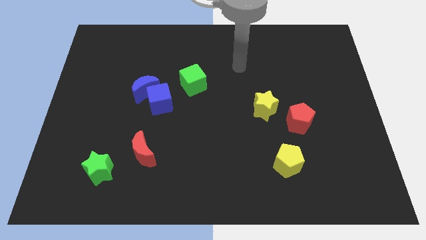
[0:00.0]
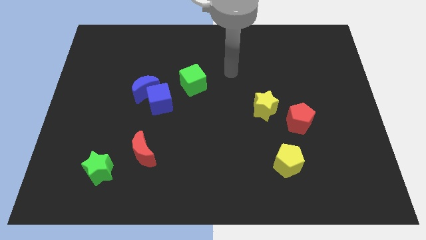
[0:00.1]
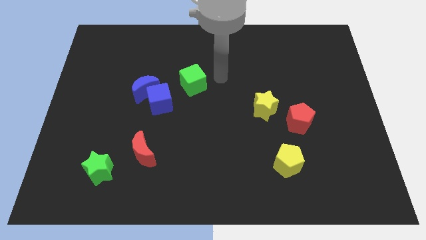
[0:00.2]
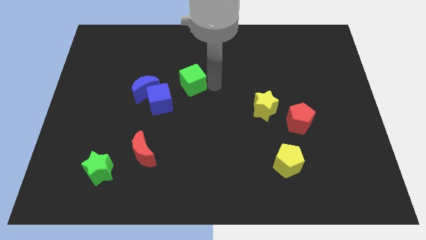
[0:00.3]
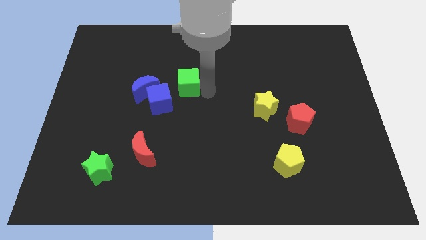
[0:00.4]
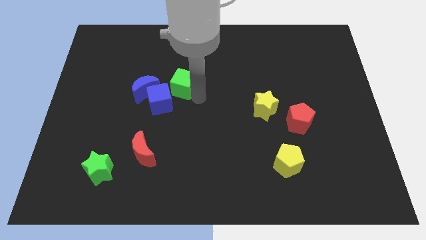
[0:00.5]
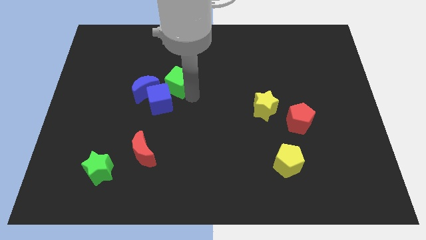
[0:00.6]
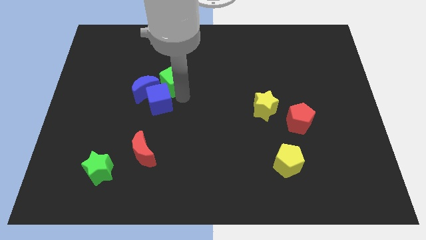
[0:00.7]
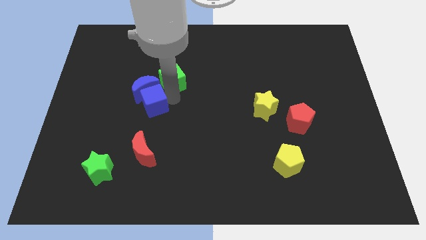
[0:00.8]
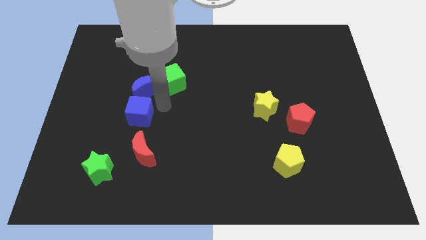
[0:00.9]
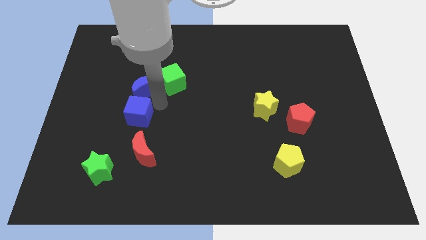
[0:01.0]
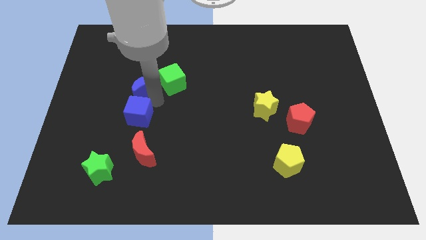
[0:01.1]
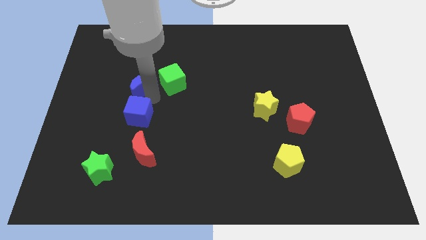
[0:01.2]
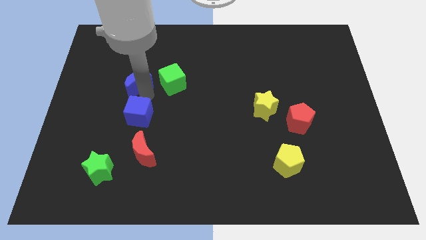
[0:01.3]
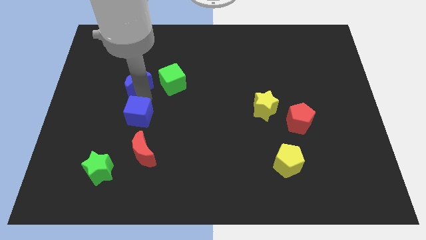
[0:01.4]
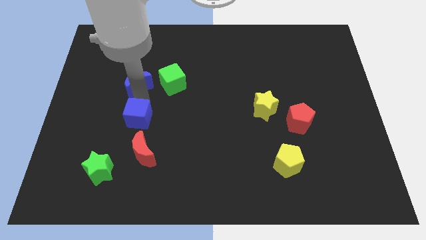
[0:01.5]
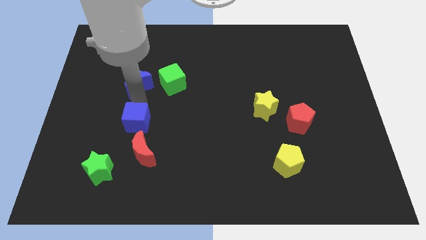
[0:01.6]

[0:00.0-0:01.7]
separate the blue moon from the blue cube

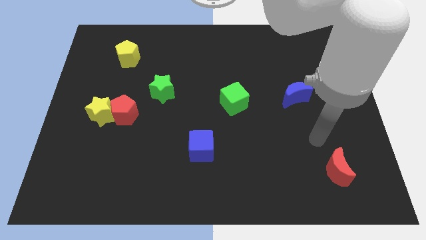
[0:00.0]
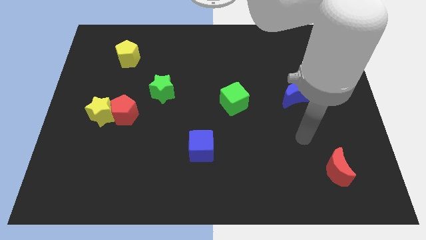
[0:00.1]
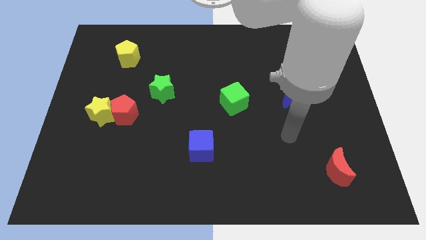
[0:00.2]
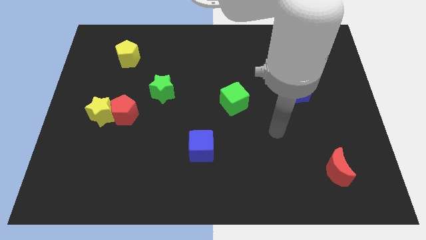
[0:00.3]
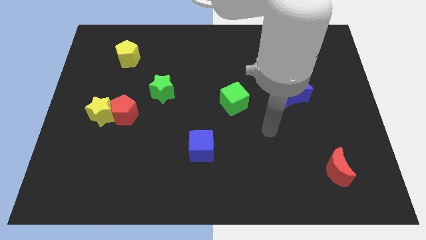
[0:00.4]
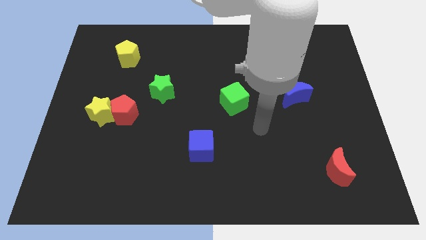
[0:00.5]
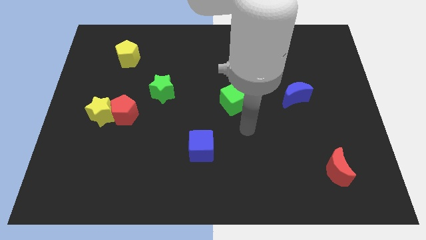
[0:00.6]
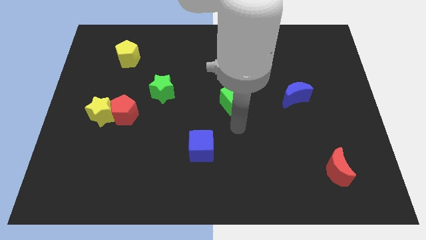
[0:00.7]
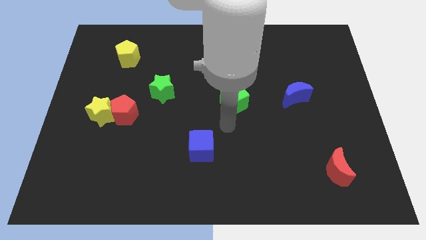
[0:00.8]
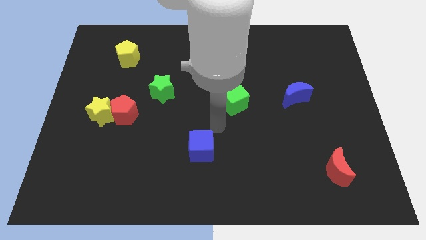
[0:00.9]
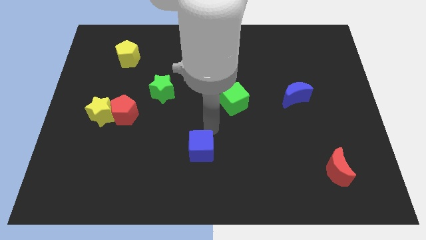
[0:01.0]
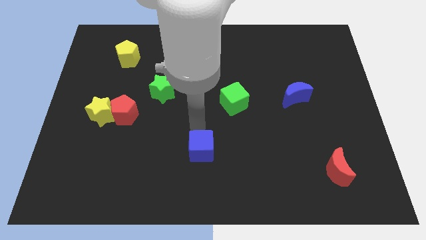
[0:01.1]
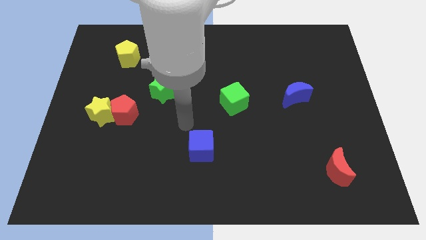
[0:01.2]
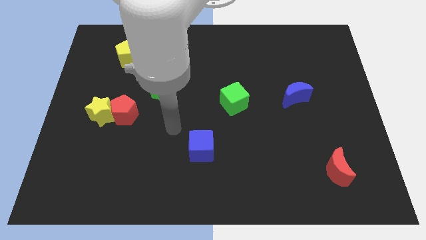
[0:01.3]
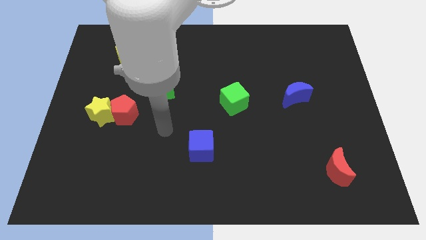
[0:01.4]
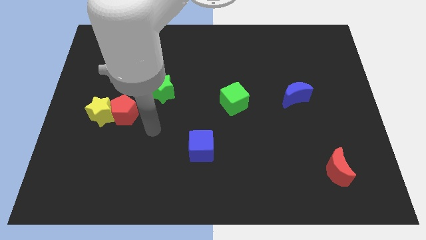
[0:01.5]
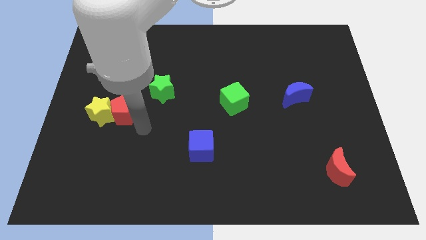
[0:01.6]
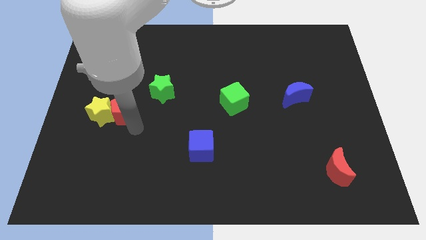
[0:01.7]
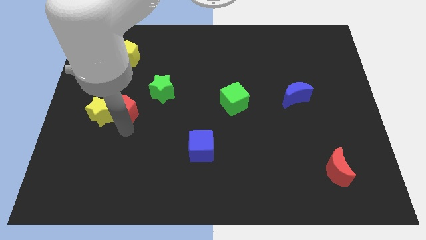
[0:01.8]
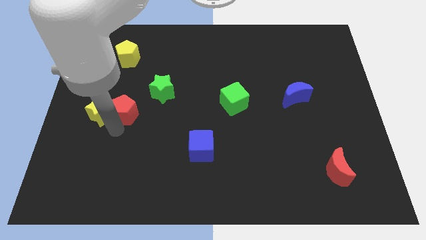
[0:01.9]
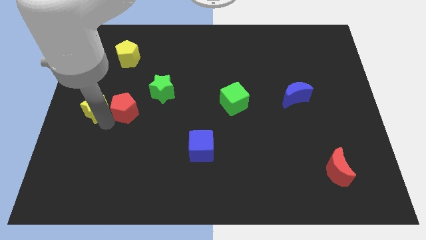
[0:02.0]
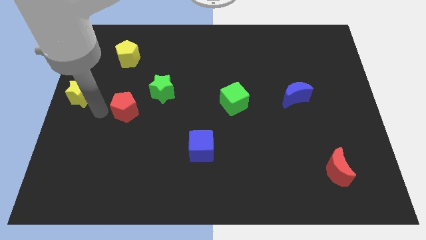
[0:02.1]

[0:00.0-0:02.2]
separate the red pentagon from the yellow star

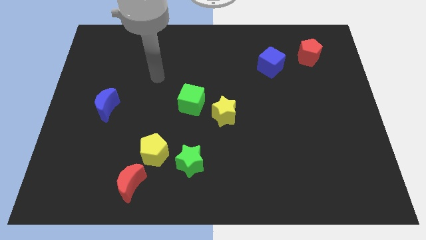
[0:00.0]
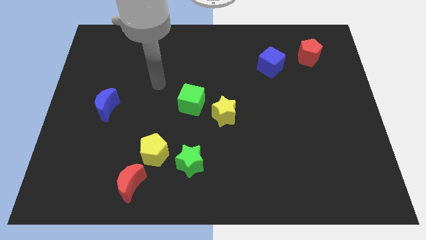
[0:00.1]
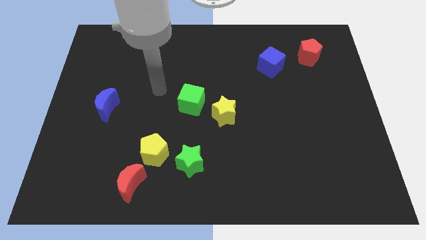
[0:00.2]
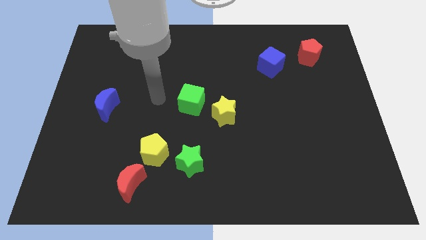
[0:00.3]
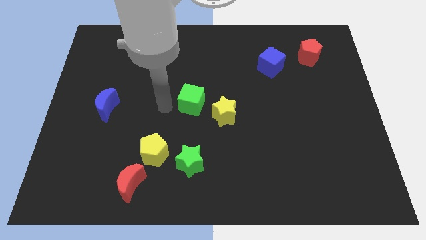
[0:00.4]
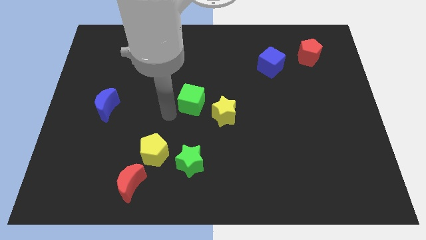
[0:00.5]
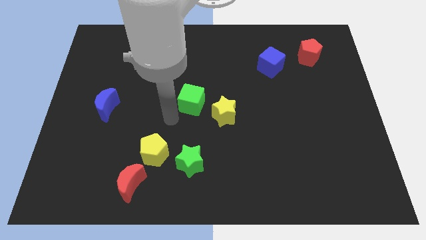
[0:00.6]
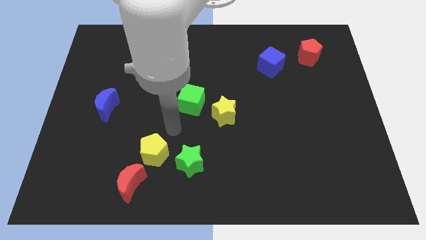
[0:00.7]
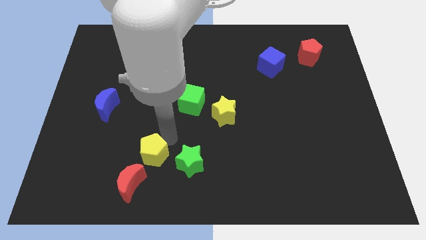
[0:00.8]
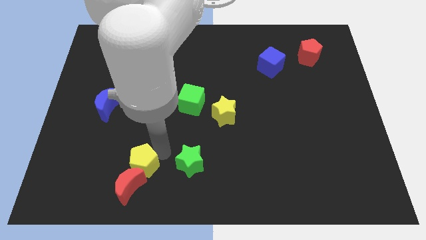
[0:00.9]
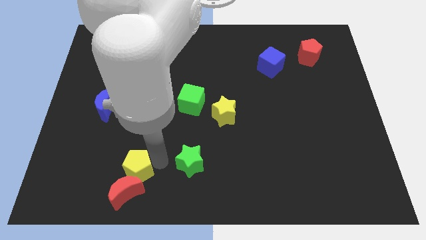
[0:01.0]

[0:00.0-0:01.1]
pull the green star apart from the yellow pentagon

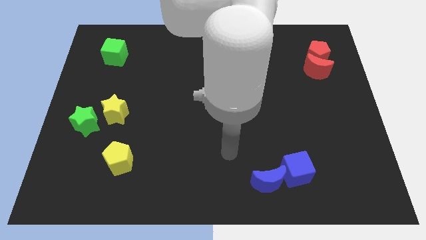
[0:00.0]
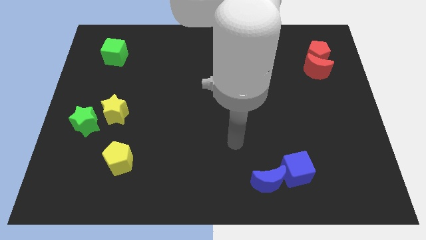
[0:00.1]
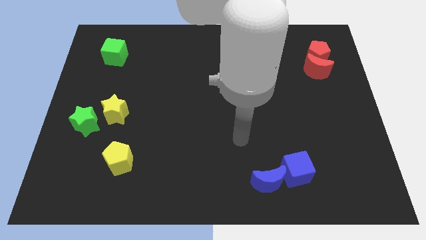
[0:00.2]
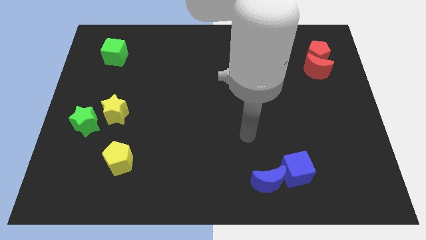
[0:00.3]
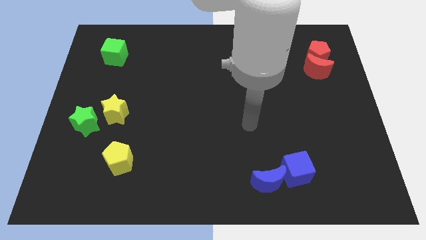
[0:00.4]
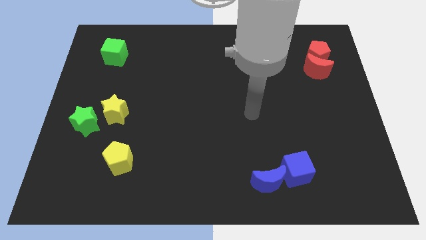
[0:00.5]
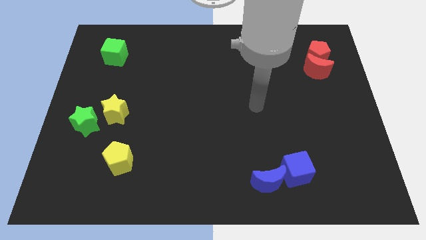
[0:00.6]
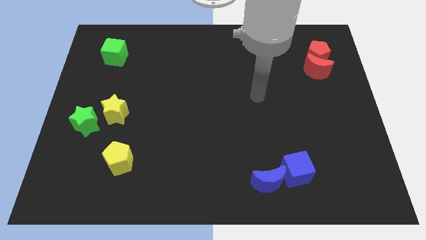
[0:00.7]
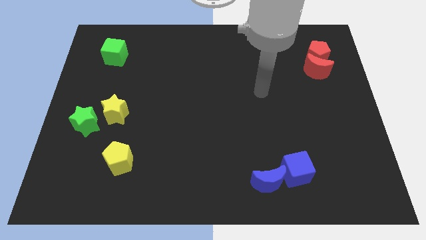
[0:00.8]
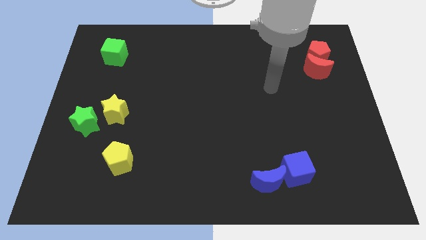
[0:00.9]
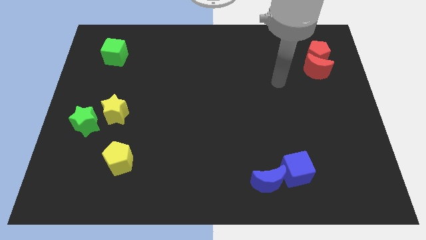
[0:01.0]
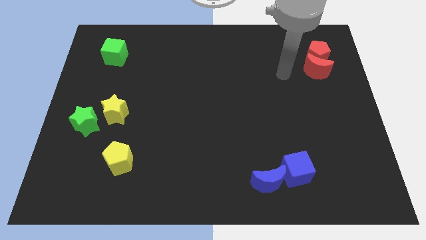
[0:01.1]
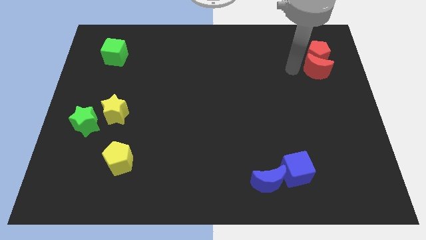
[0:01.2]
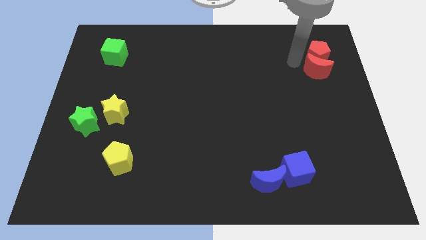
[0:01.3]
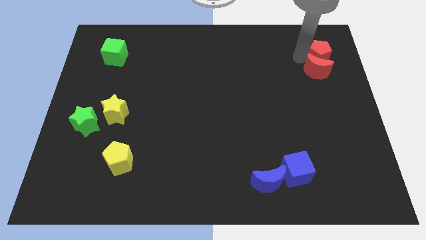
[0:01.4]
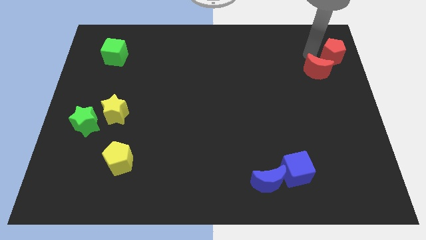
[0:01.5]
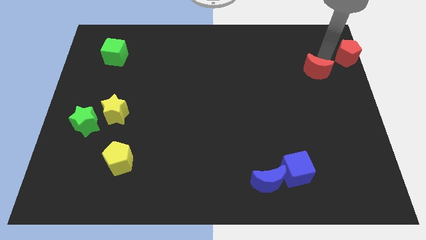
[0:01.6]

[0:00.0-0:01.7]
move the red moon away from the red pentagon

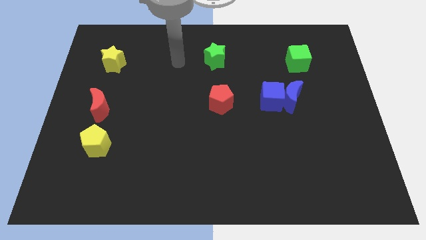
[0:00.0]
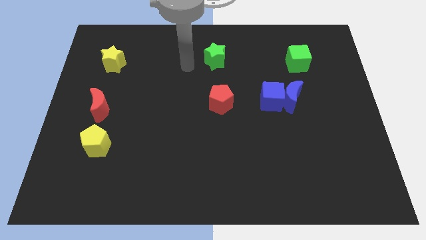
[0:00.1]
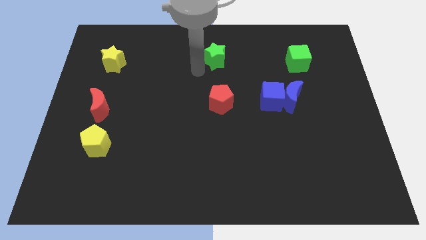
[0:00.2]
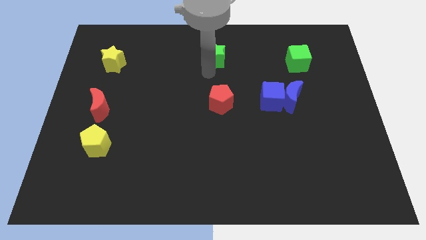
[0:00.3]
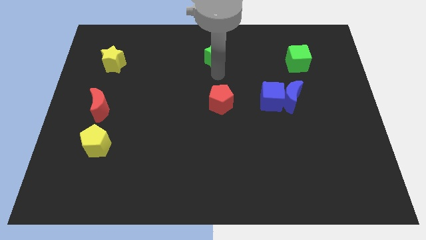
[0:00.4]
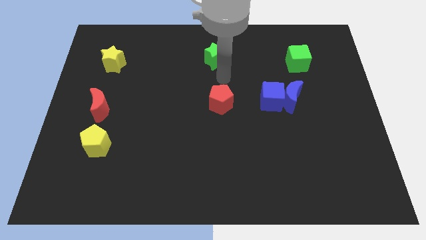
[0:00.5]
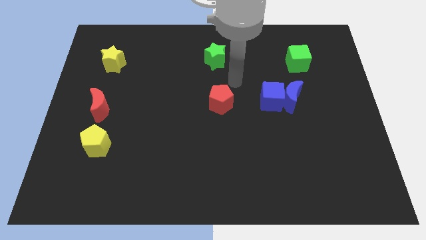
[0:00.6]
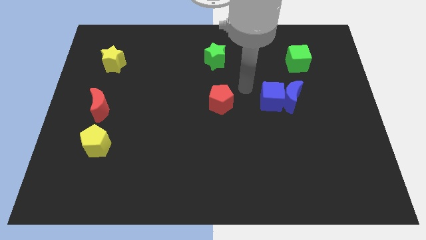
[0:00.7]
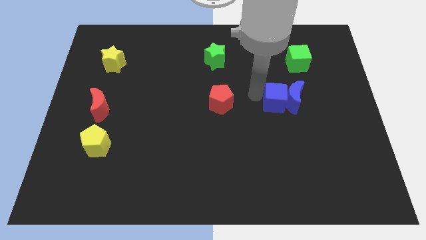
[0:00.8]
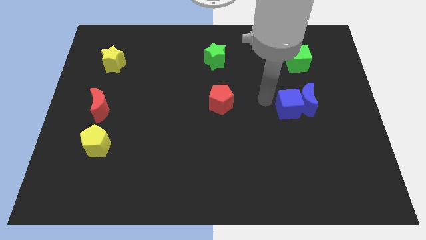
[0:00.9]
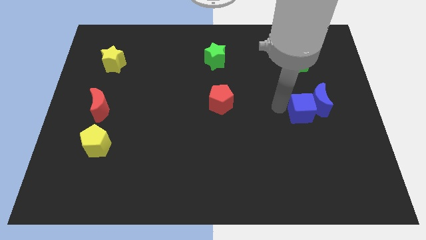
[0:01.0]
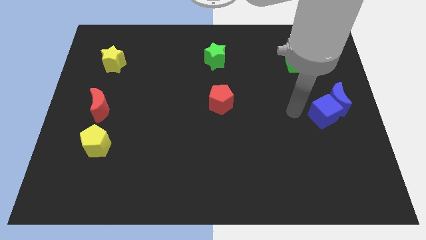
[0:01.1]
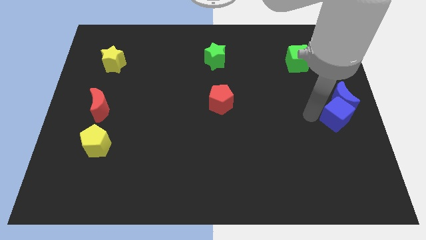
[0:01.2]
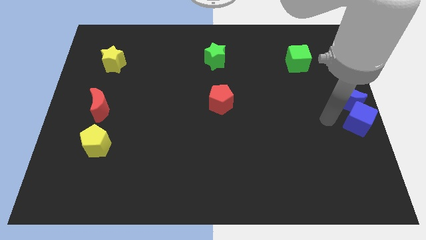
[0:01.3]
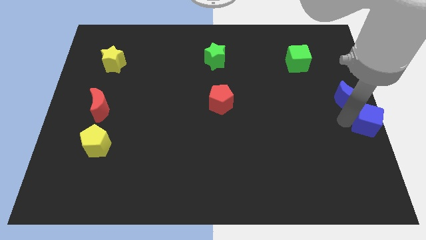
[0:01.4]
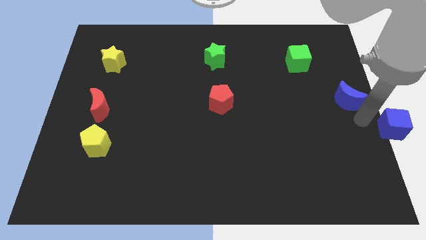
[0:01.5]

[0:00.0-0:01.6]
move the blue moon away from the blue cube

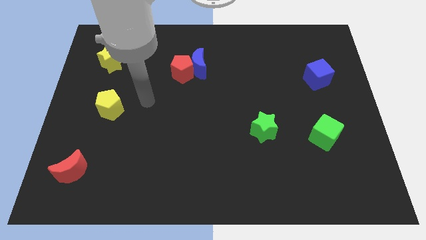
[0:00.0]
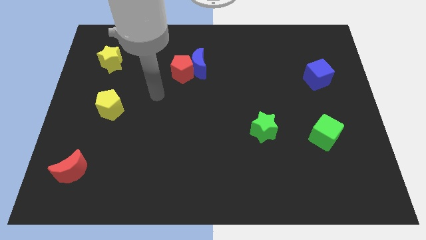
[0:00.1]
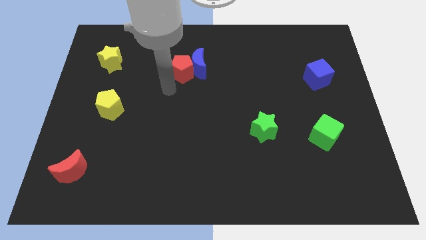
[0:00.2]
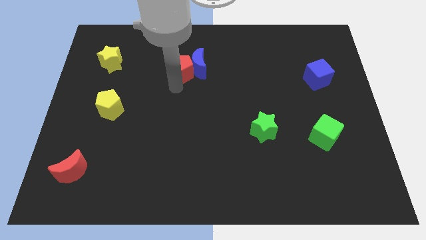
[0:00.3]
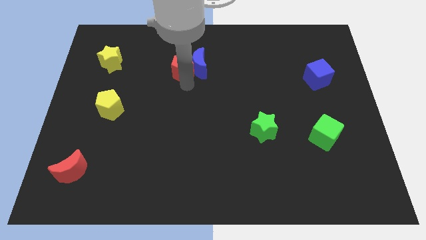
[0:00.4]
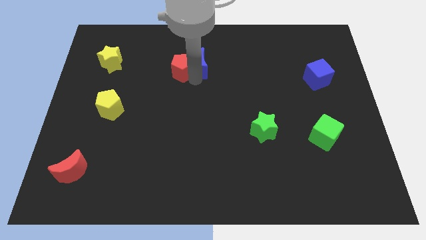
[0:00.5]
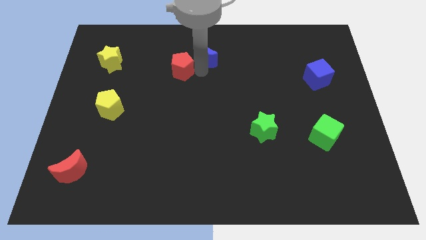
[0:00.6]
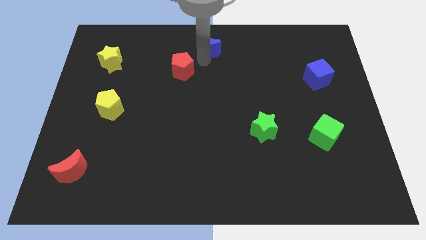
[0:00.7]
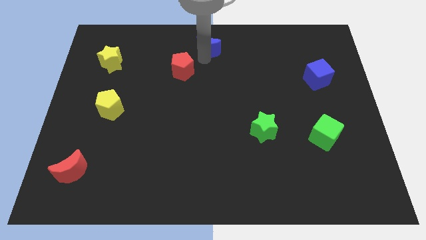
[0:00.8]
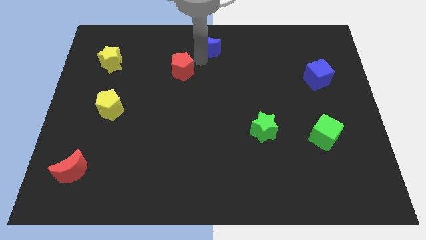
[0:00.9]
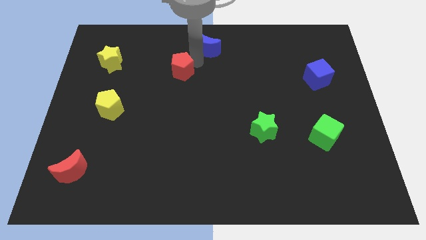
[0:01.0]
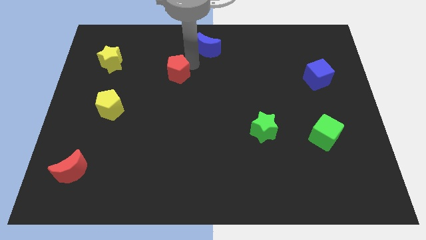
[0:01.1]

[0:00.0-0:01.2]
move the red pentagon away from the blue moon
